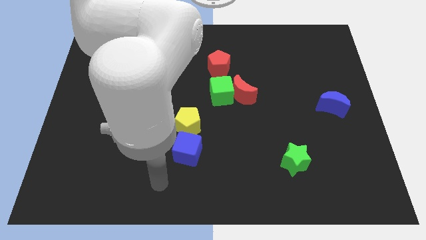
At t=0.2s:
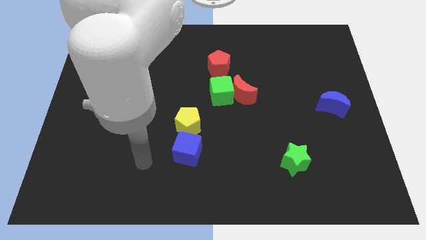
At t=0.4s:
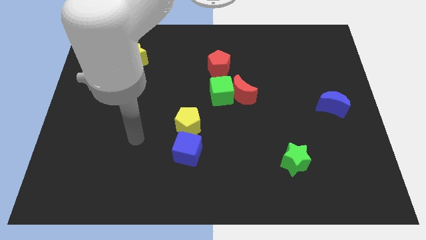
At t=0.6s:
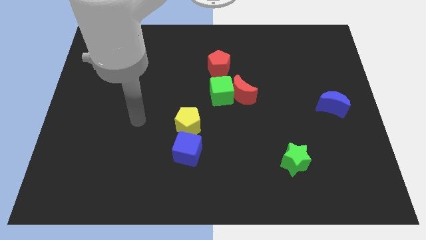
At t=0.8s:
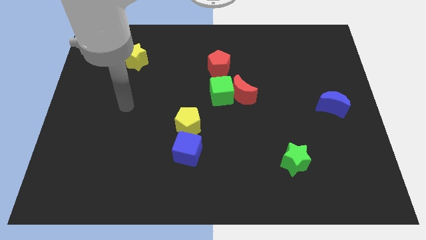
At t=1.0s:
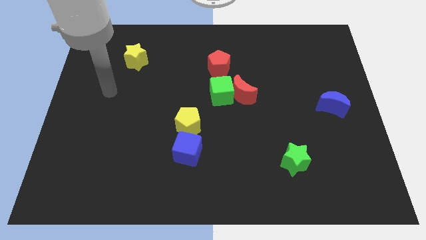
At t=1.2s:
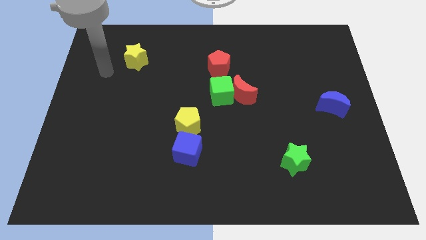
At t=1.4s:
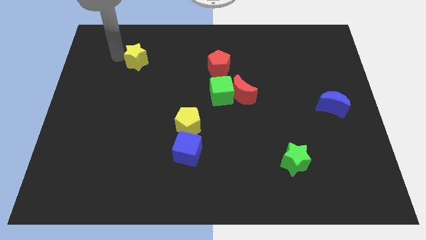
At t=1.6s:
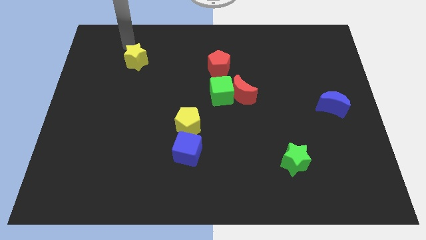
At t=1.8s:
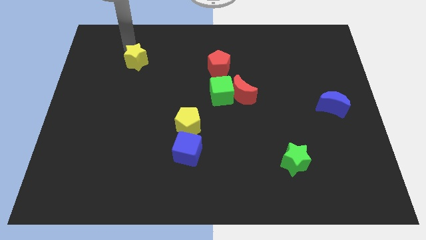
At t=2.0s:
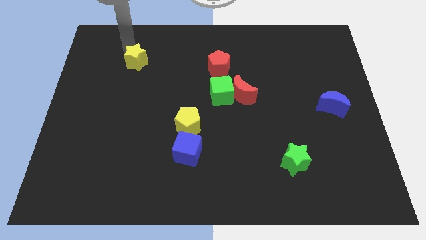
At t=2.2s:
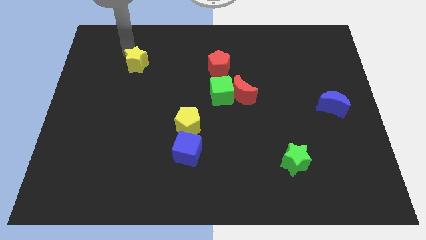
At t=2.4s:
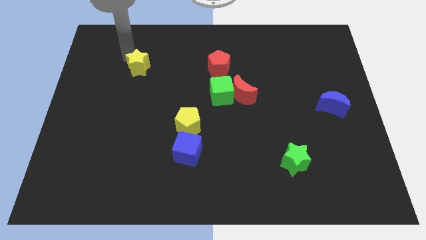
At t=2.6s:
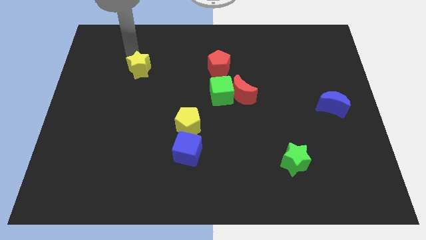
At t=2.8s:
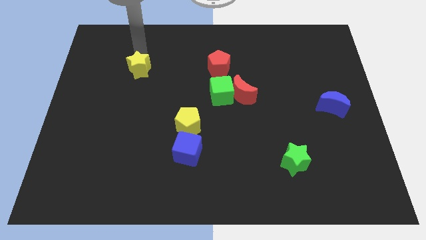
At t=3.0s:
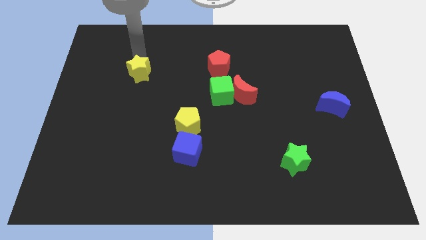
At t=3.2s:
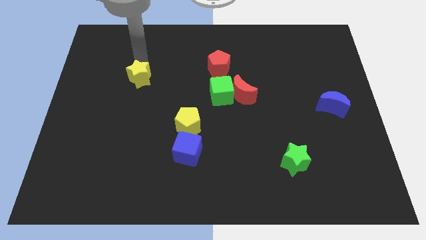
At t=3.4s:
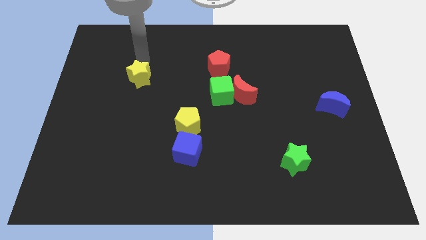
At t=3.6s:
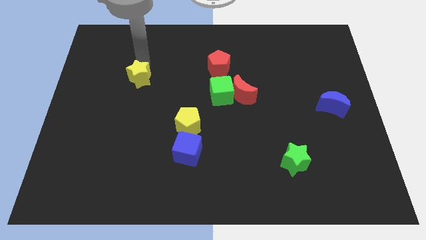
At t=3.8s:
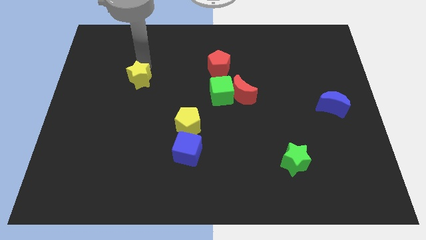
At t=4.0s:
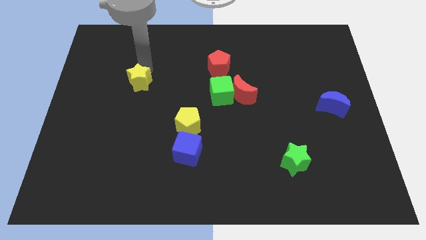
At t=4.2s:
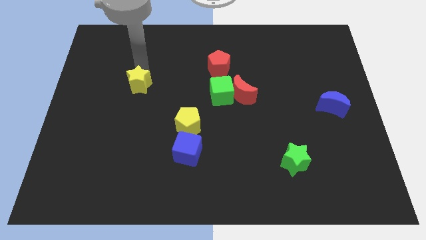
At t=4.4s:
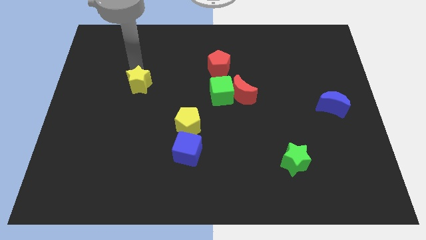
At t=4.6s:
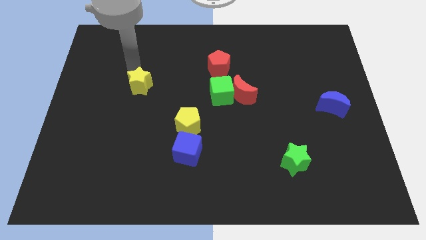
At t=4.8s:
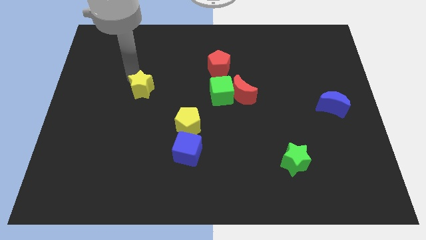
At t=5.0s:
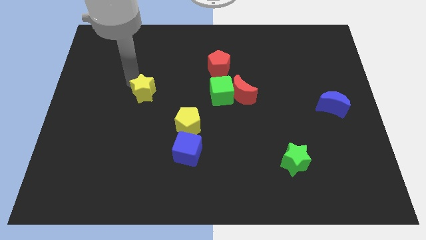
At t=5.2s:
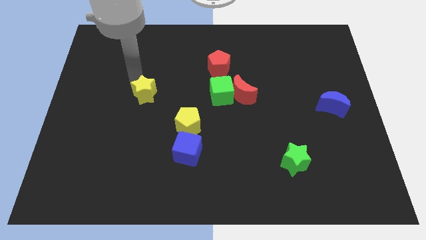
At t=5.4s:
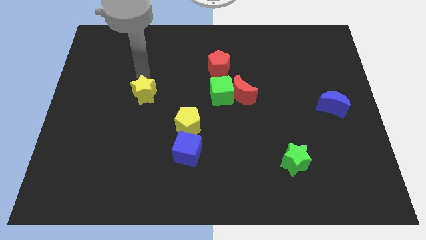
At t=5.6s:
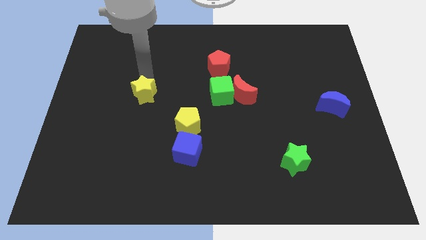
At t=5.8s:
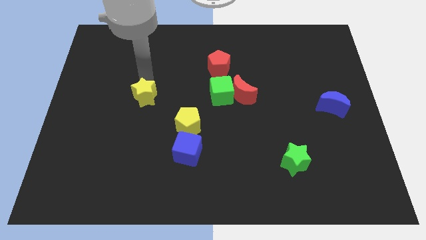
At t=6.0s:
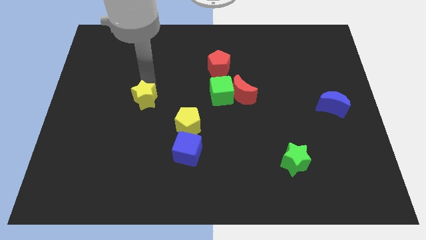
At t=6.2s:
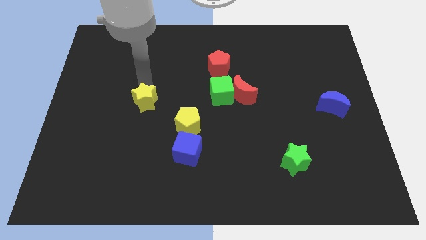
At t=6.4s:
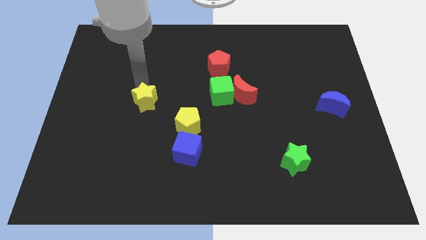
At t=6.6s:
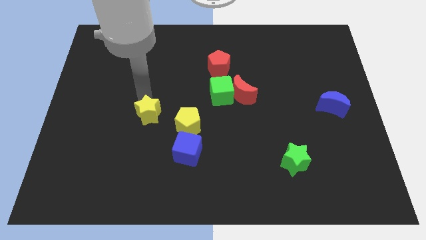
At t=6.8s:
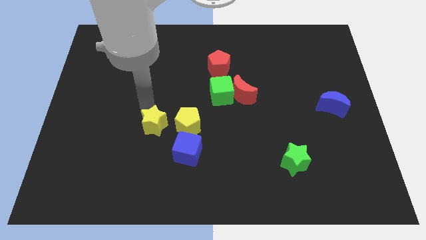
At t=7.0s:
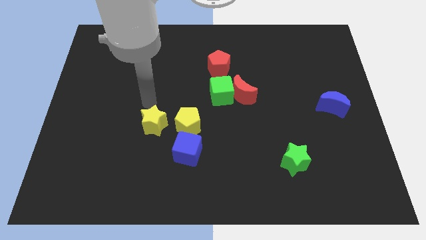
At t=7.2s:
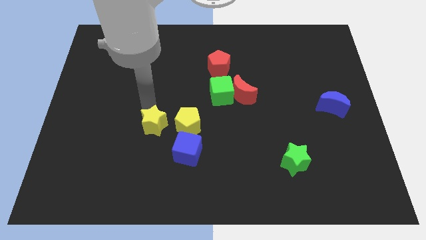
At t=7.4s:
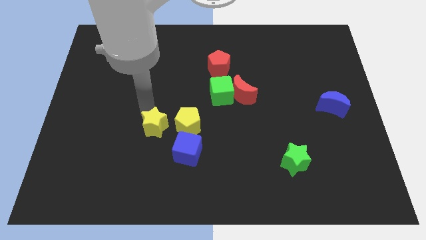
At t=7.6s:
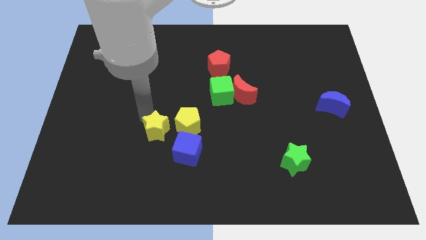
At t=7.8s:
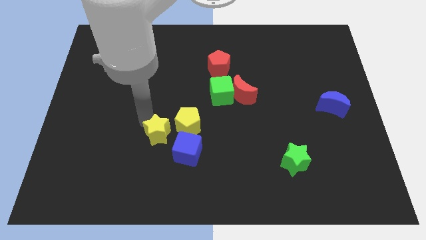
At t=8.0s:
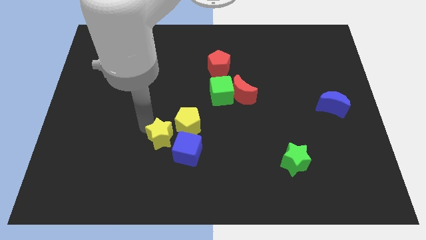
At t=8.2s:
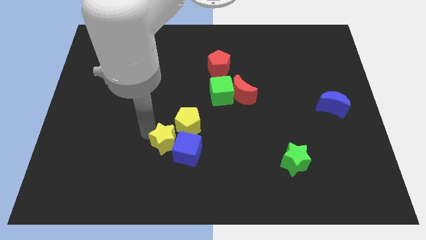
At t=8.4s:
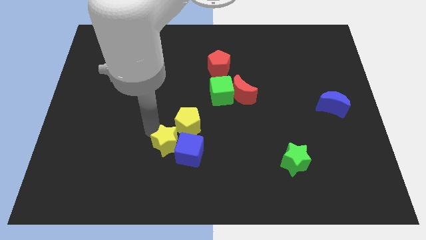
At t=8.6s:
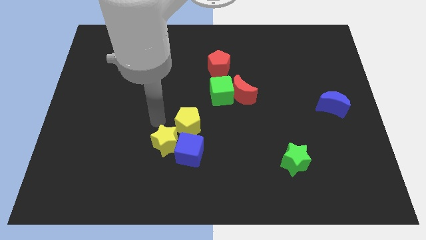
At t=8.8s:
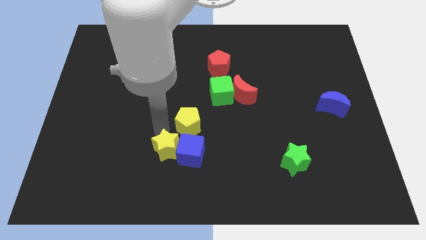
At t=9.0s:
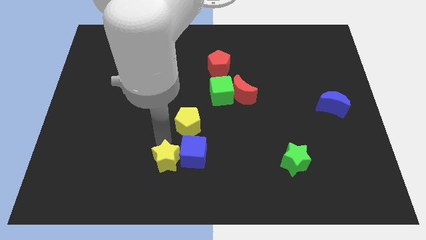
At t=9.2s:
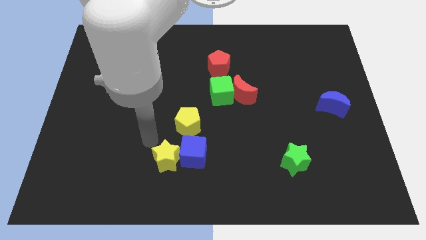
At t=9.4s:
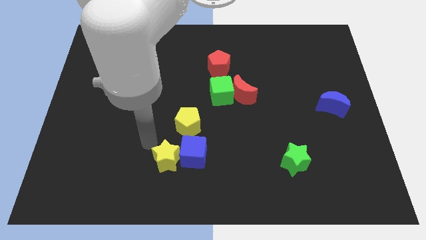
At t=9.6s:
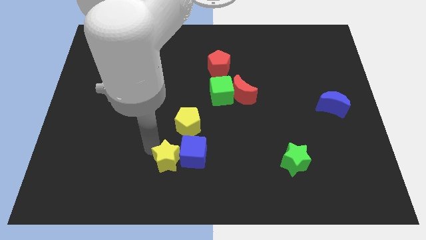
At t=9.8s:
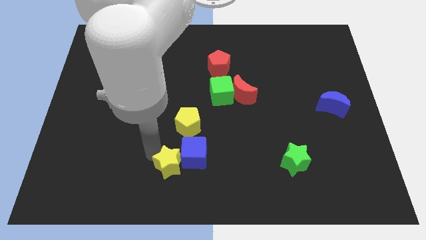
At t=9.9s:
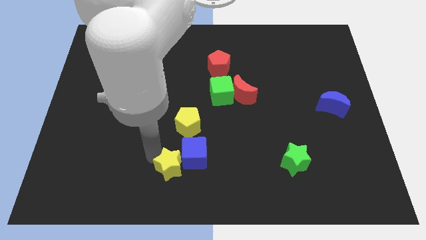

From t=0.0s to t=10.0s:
slide the yellow star to the bottom side

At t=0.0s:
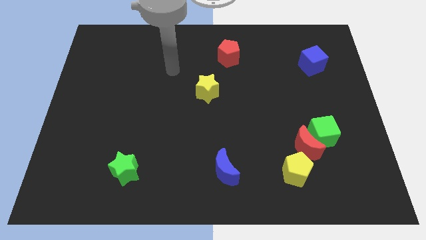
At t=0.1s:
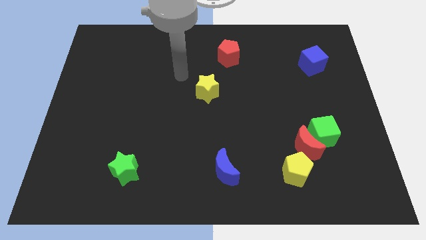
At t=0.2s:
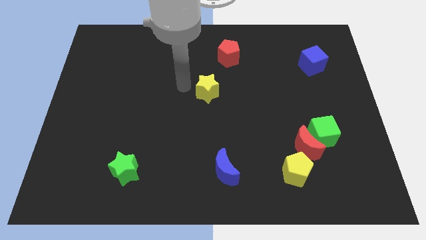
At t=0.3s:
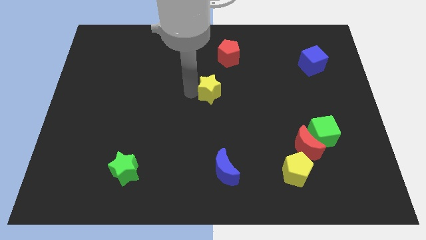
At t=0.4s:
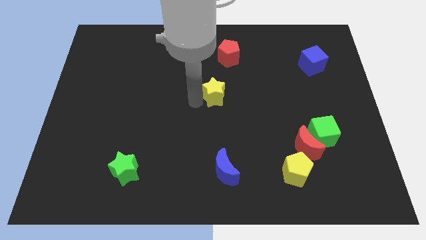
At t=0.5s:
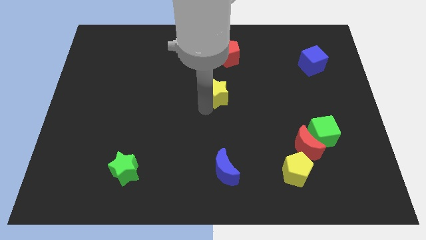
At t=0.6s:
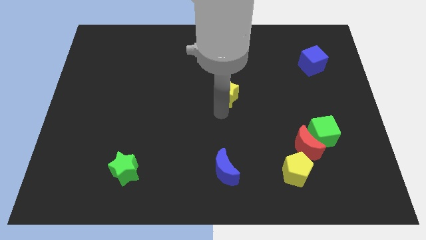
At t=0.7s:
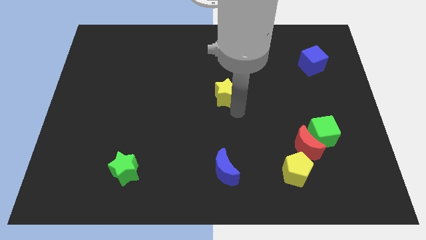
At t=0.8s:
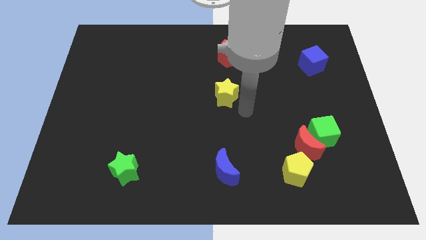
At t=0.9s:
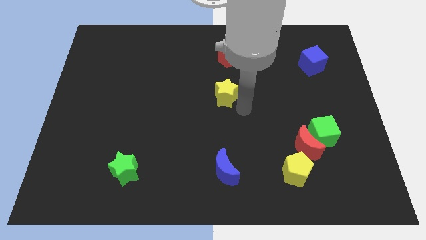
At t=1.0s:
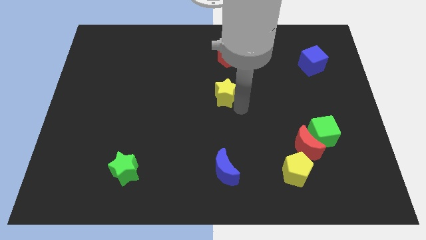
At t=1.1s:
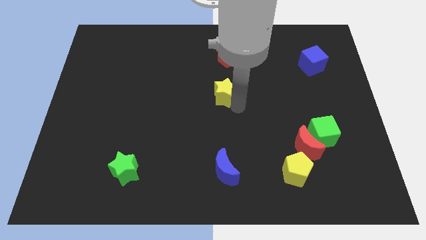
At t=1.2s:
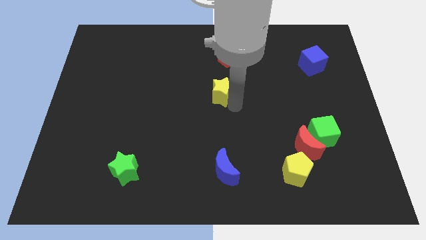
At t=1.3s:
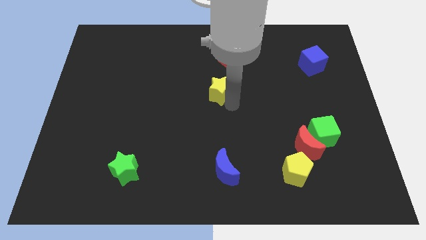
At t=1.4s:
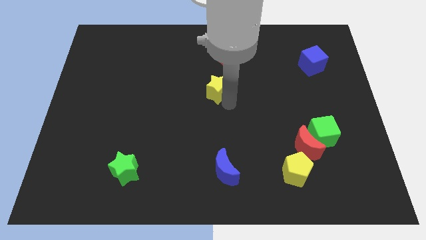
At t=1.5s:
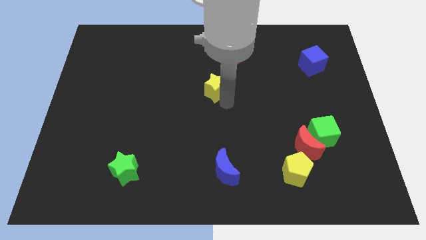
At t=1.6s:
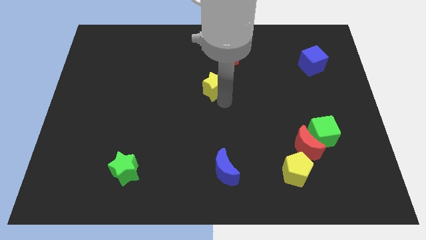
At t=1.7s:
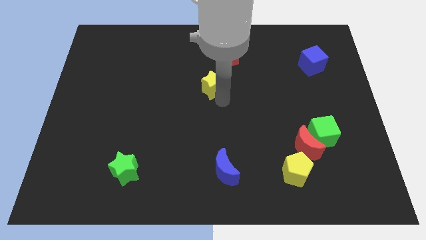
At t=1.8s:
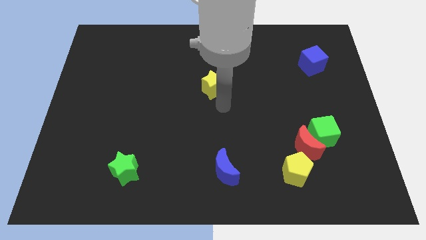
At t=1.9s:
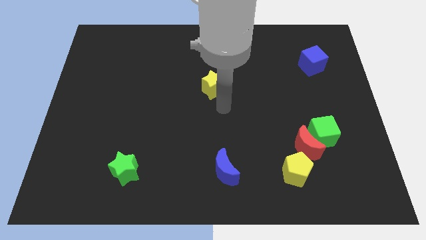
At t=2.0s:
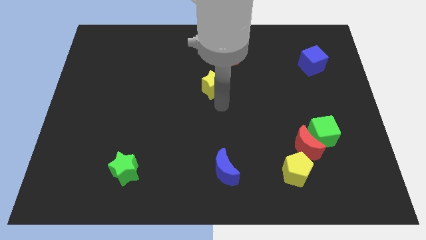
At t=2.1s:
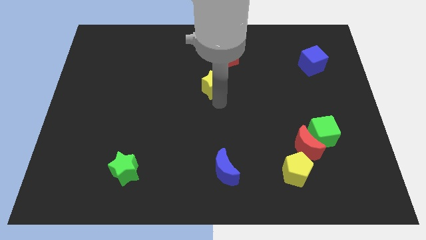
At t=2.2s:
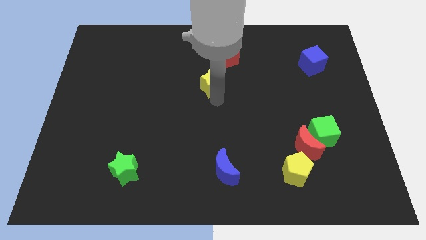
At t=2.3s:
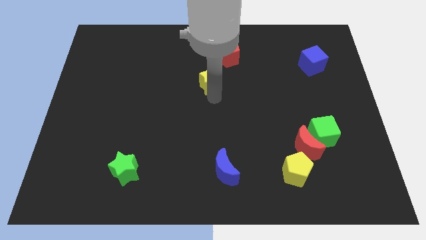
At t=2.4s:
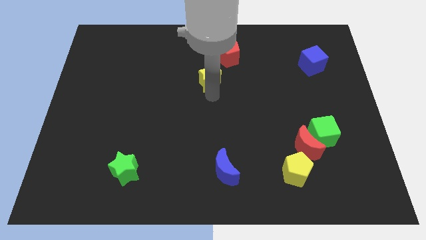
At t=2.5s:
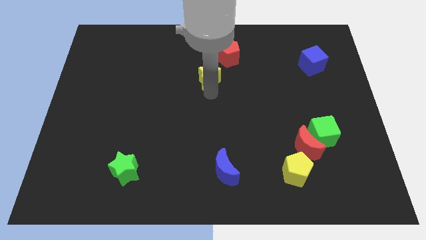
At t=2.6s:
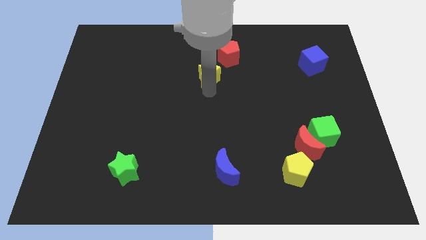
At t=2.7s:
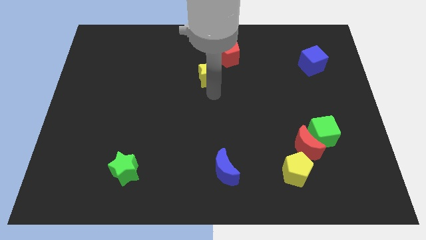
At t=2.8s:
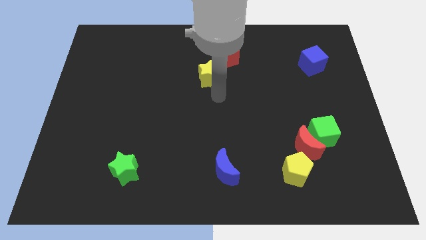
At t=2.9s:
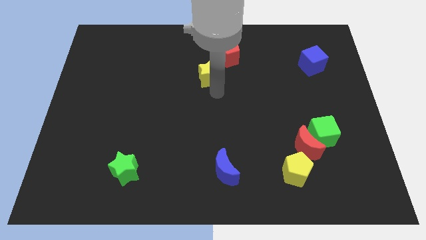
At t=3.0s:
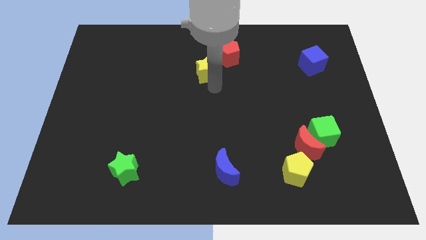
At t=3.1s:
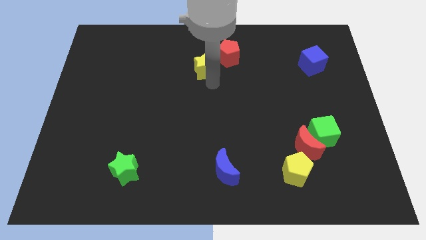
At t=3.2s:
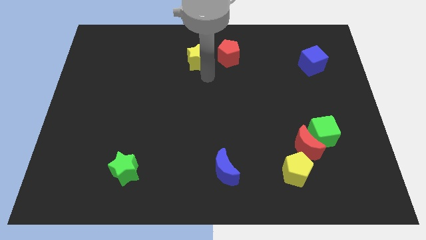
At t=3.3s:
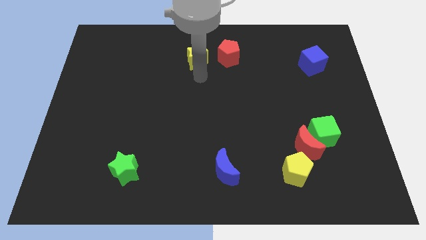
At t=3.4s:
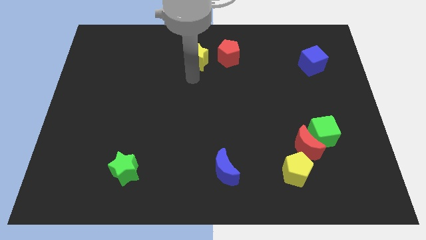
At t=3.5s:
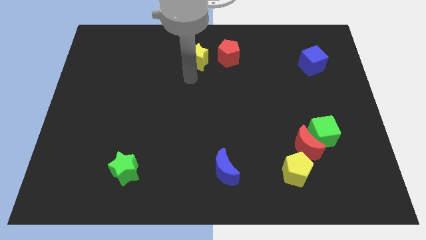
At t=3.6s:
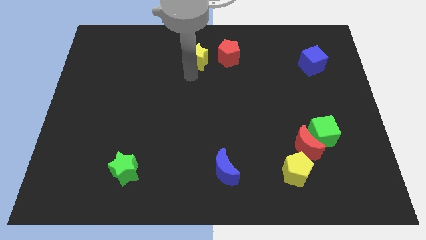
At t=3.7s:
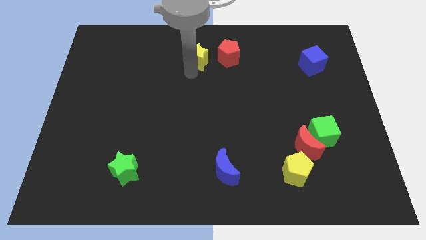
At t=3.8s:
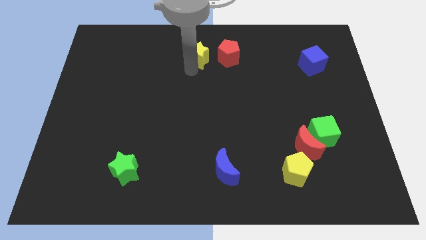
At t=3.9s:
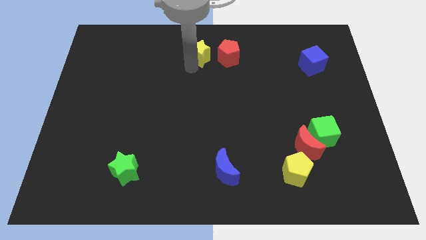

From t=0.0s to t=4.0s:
push the yellow star to the towards your base
